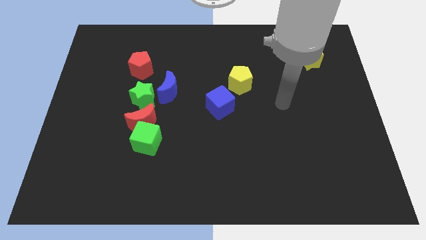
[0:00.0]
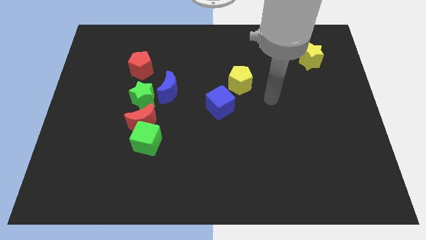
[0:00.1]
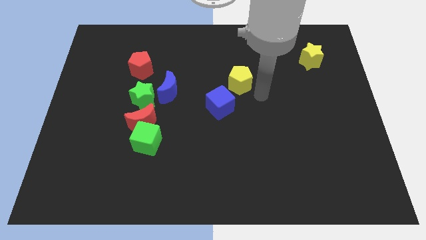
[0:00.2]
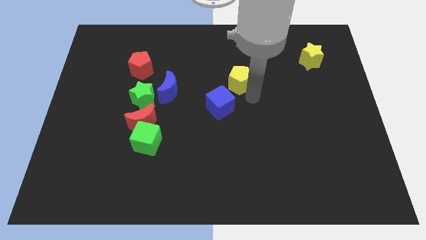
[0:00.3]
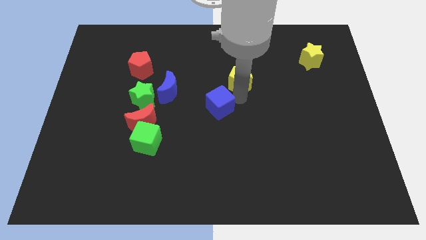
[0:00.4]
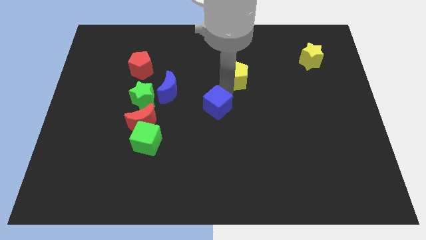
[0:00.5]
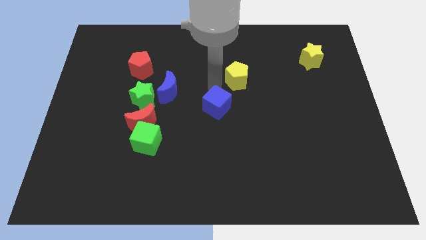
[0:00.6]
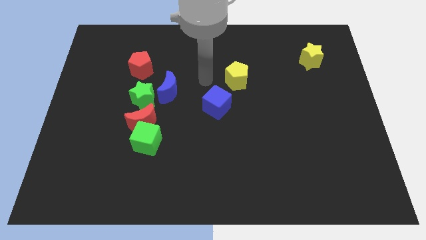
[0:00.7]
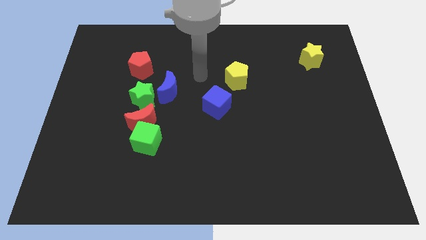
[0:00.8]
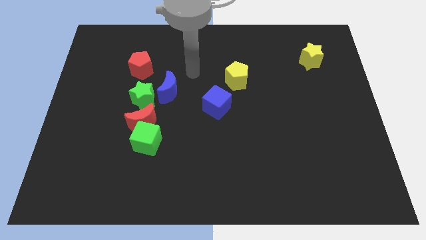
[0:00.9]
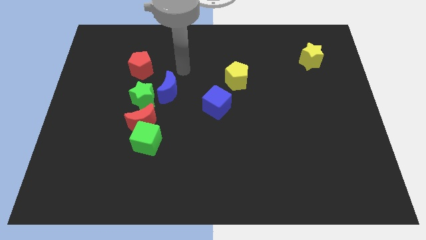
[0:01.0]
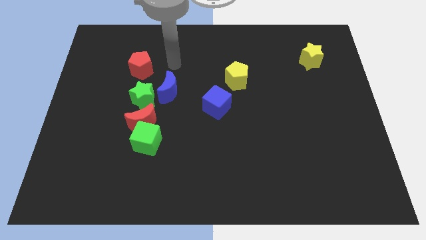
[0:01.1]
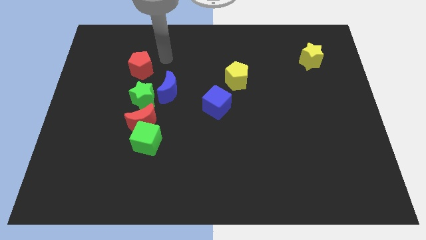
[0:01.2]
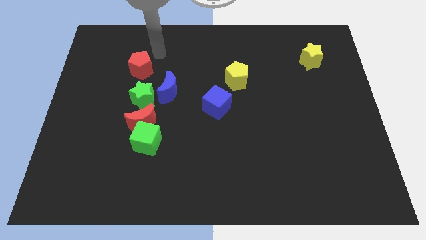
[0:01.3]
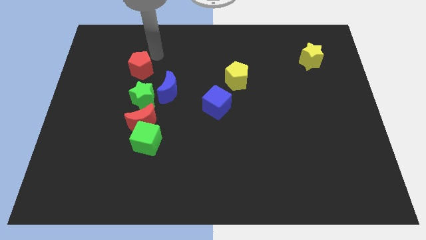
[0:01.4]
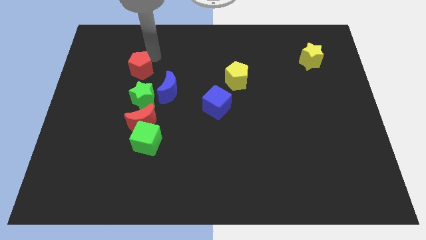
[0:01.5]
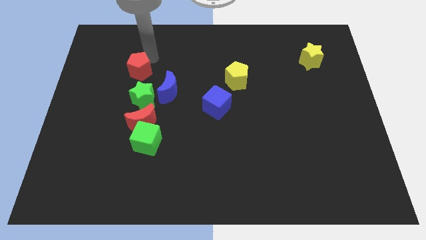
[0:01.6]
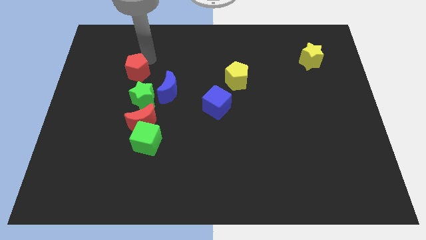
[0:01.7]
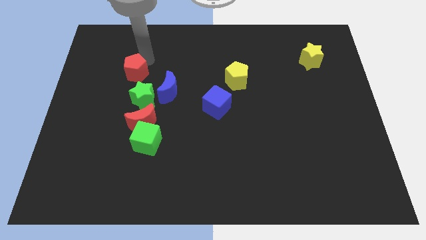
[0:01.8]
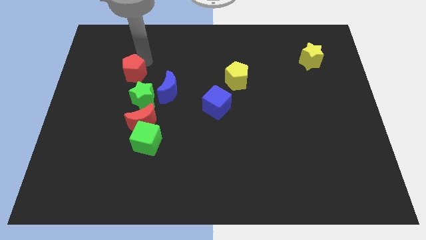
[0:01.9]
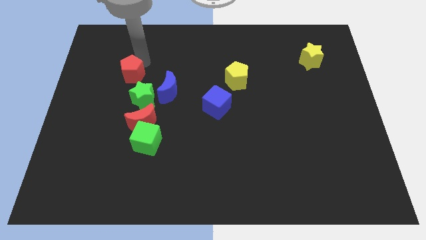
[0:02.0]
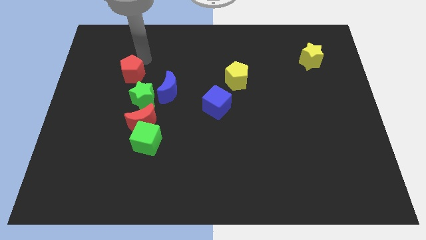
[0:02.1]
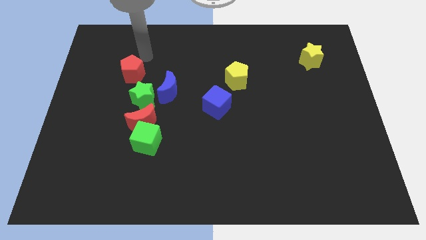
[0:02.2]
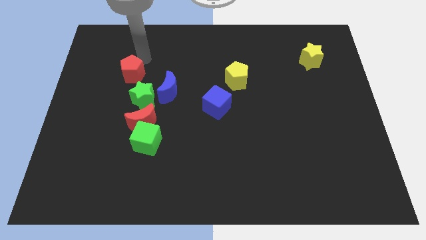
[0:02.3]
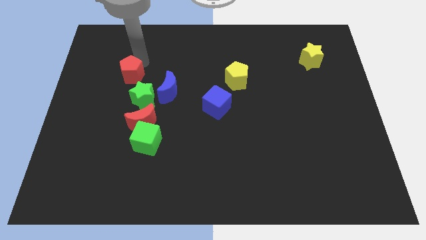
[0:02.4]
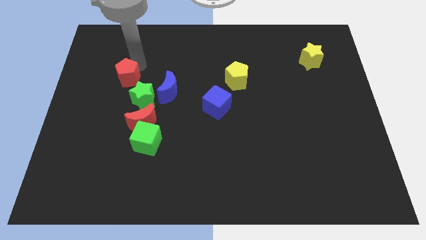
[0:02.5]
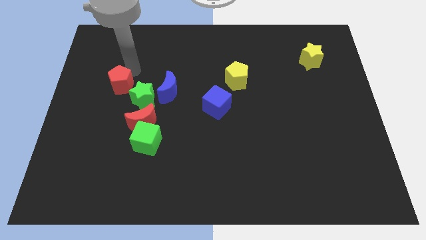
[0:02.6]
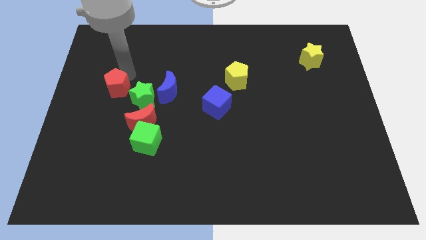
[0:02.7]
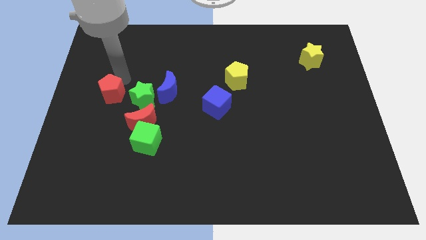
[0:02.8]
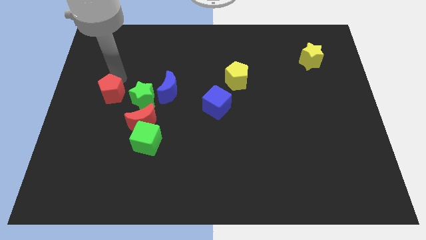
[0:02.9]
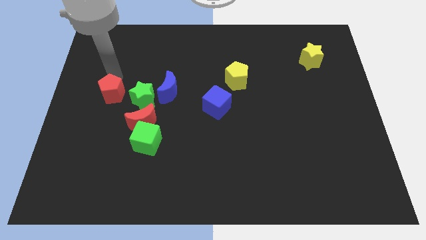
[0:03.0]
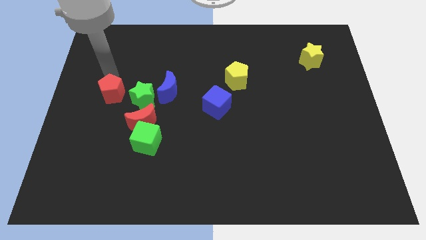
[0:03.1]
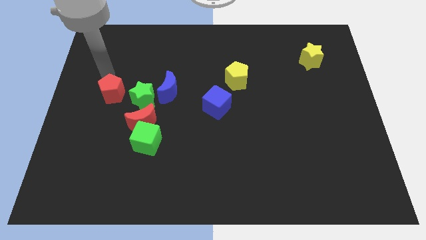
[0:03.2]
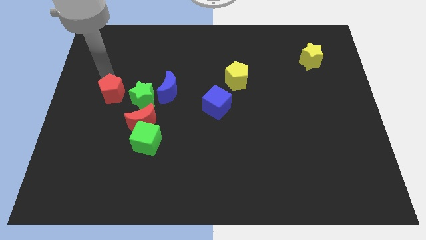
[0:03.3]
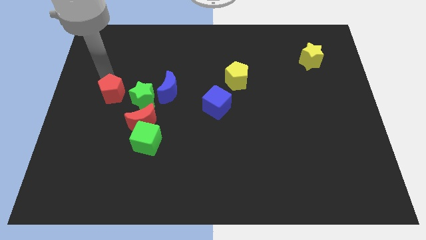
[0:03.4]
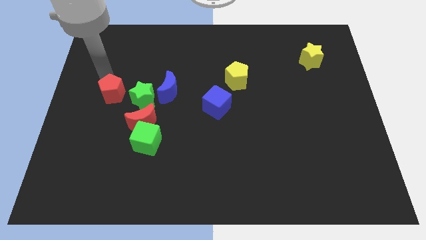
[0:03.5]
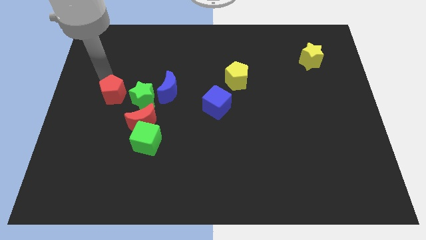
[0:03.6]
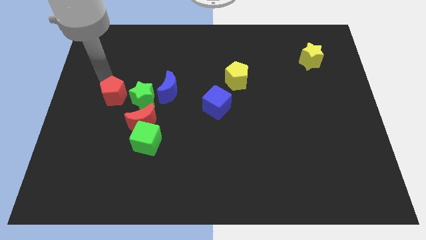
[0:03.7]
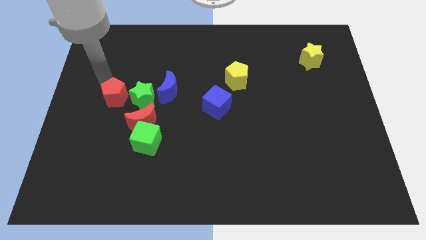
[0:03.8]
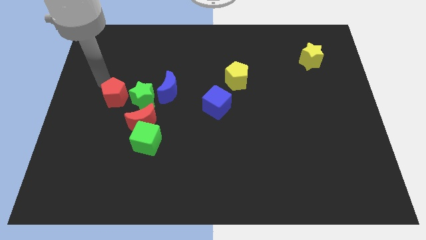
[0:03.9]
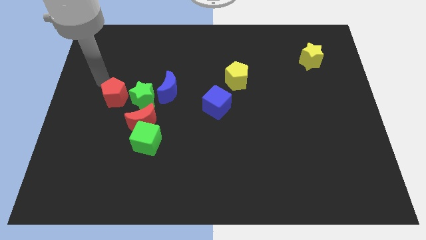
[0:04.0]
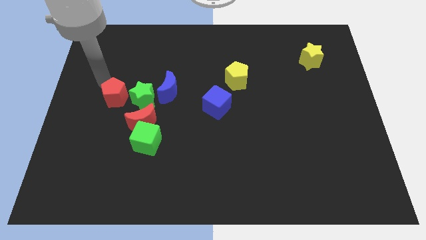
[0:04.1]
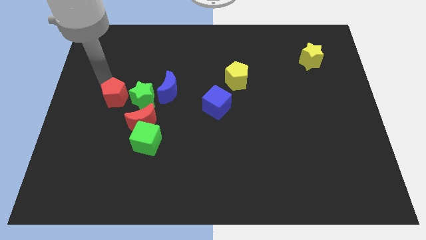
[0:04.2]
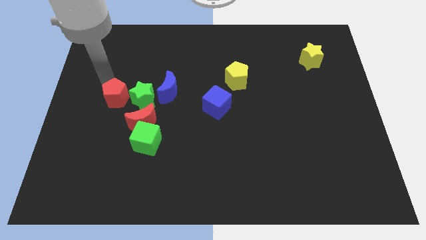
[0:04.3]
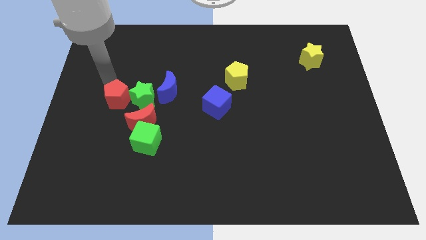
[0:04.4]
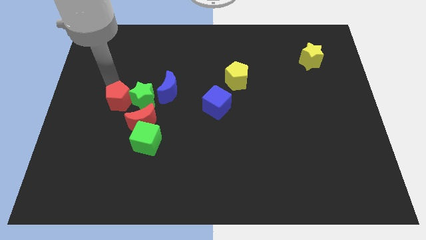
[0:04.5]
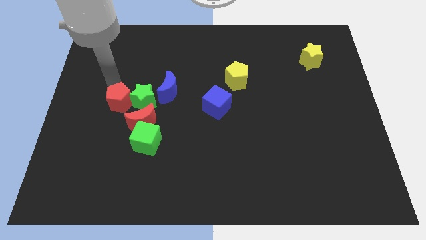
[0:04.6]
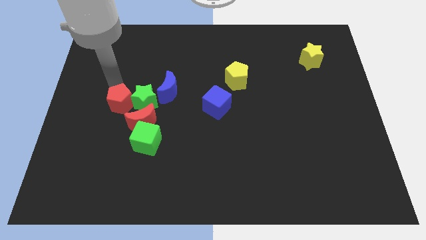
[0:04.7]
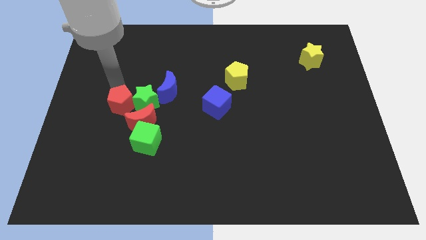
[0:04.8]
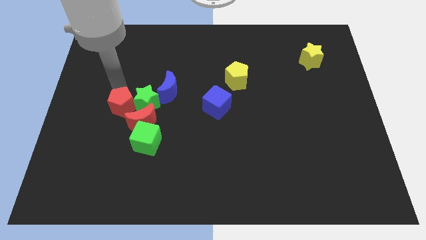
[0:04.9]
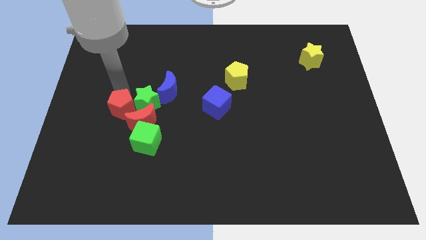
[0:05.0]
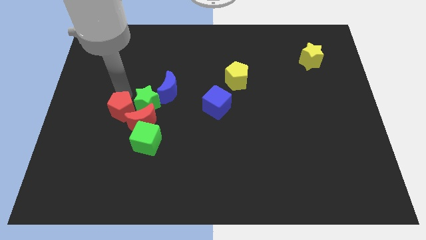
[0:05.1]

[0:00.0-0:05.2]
move the red pentagon close to the red moon

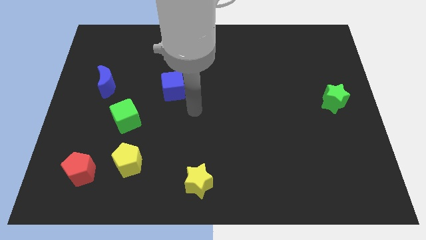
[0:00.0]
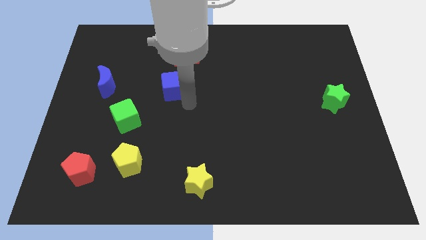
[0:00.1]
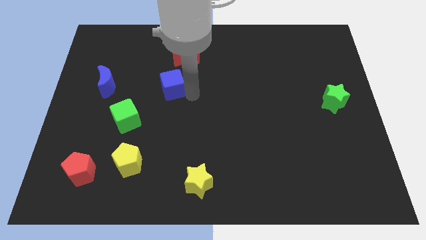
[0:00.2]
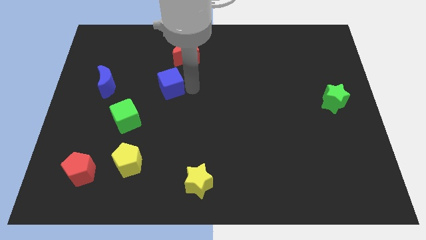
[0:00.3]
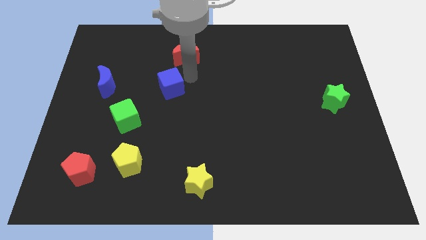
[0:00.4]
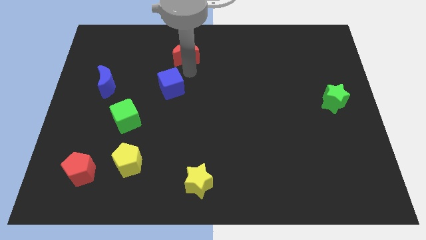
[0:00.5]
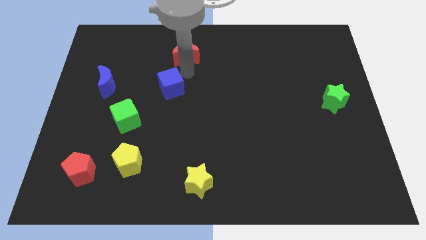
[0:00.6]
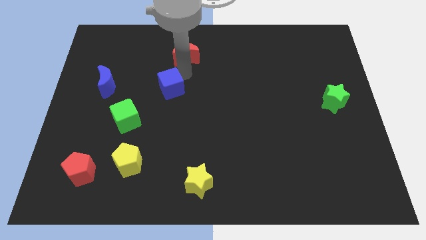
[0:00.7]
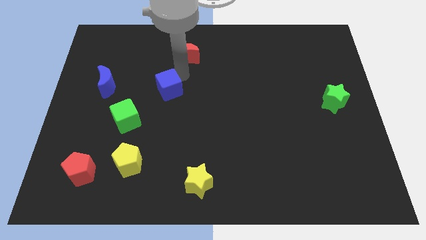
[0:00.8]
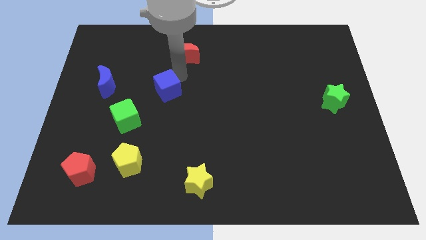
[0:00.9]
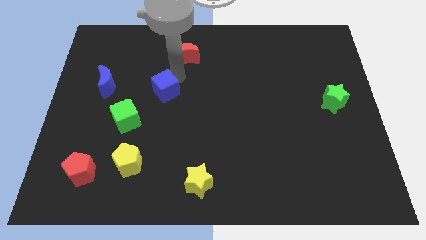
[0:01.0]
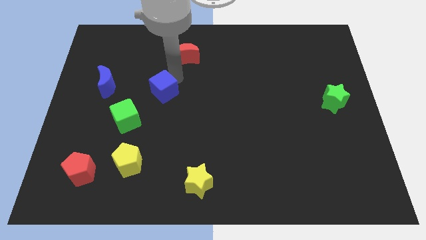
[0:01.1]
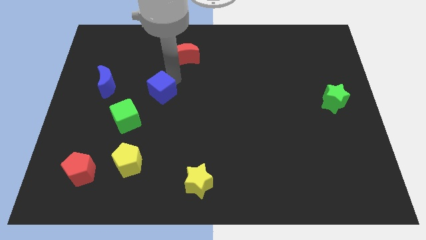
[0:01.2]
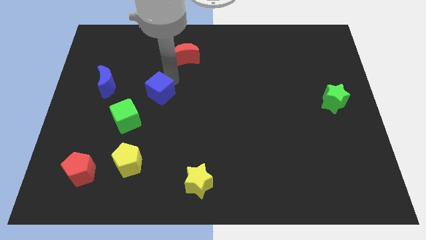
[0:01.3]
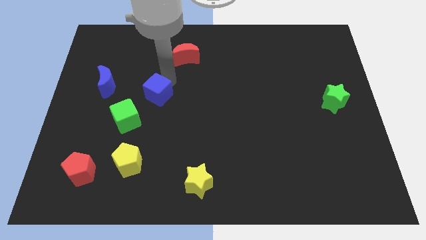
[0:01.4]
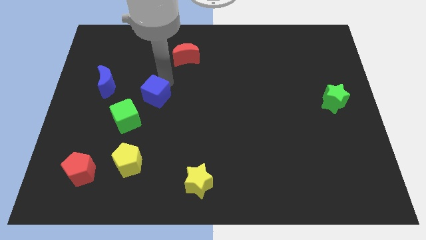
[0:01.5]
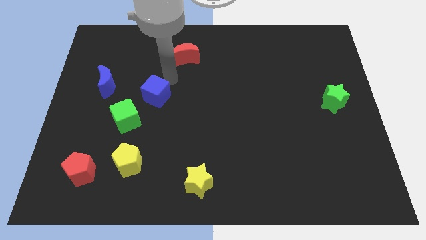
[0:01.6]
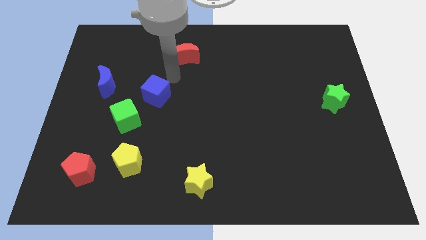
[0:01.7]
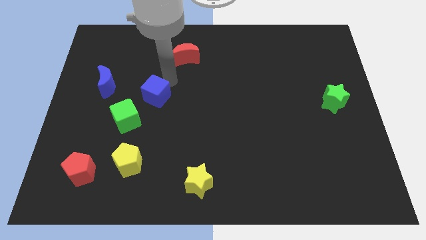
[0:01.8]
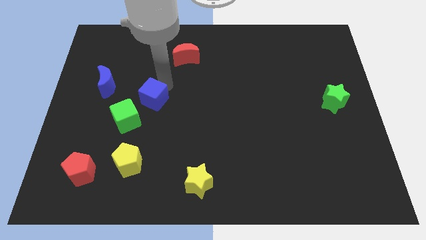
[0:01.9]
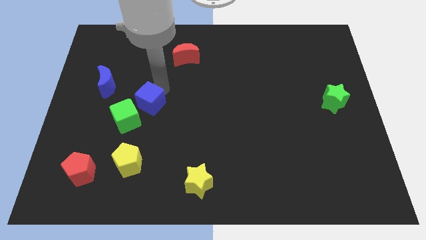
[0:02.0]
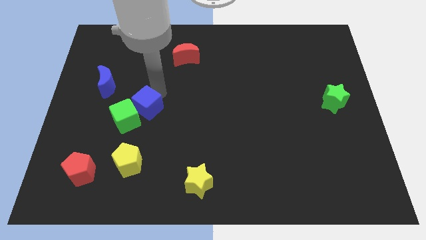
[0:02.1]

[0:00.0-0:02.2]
put the blue cube close to the green cube
